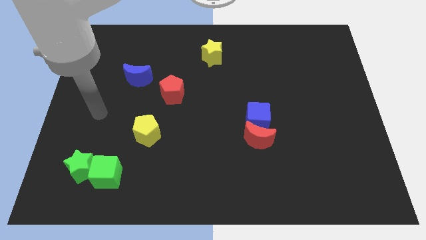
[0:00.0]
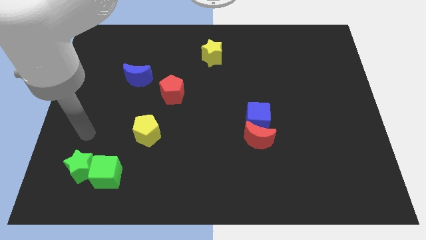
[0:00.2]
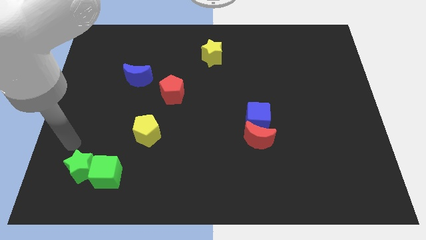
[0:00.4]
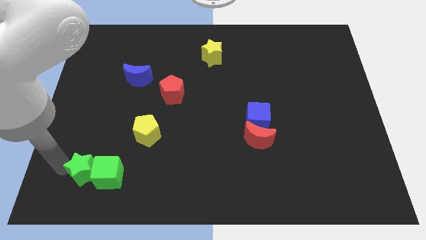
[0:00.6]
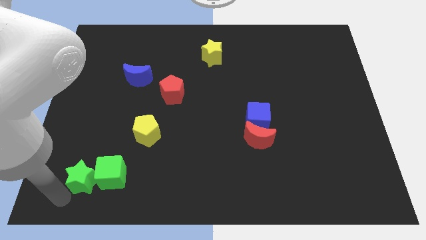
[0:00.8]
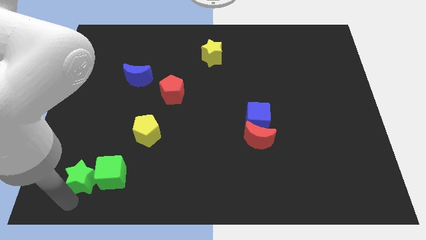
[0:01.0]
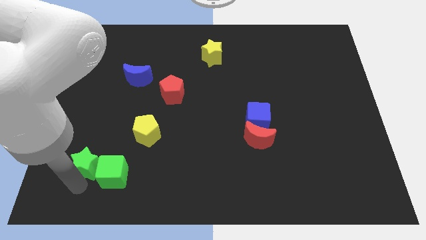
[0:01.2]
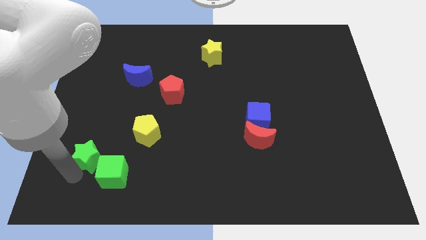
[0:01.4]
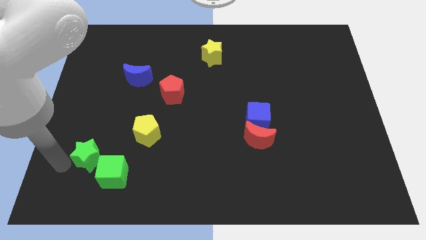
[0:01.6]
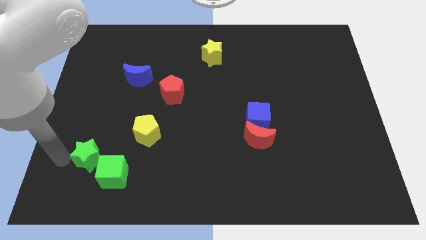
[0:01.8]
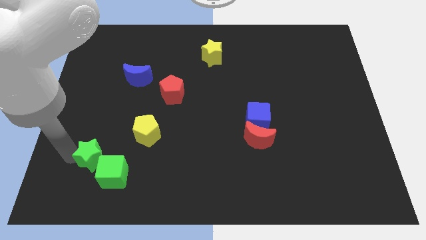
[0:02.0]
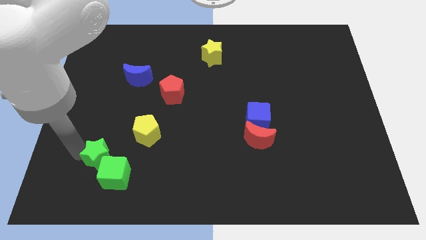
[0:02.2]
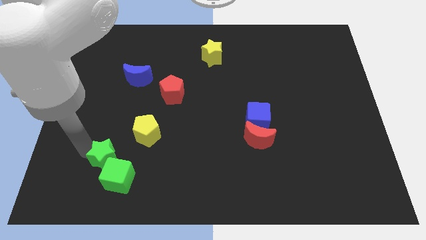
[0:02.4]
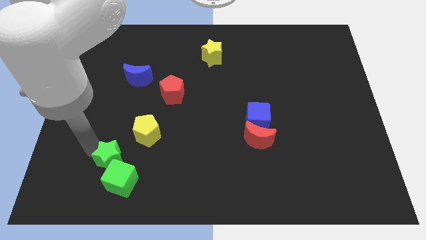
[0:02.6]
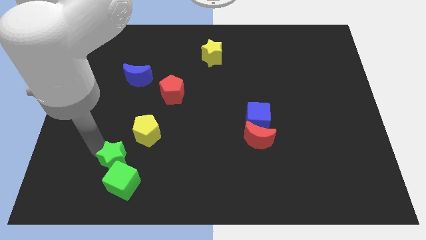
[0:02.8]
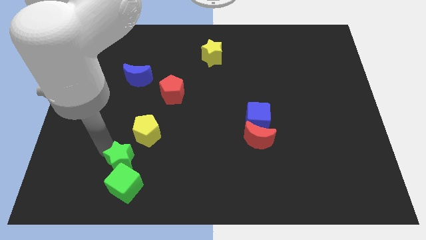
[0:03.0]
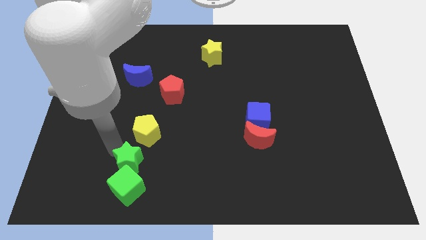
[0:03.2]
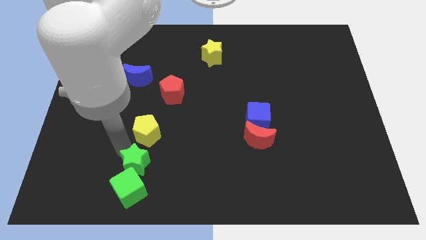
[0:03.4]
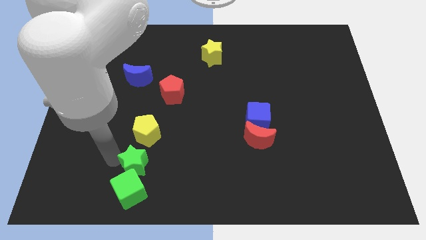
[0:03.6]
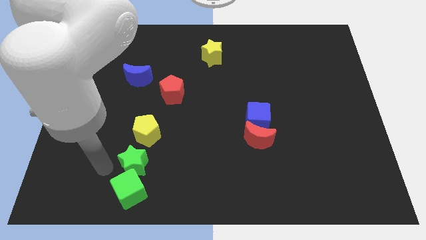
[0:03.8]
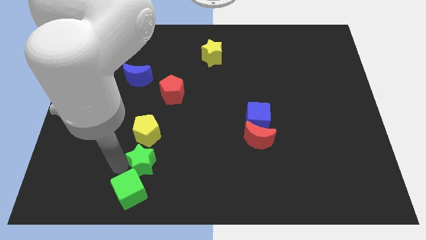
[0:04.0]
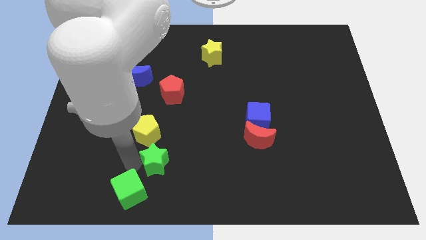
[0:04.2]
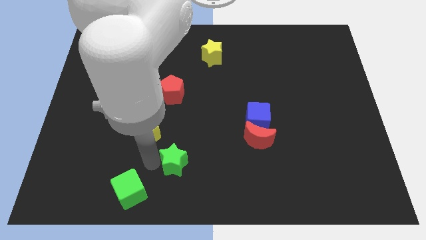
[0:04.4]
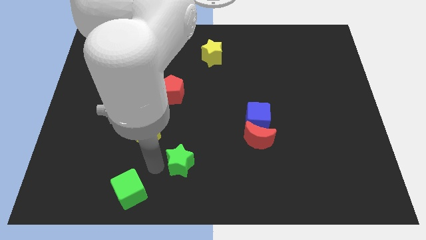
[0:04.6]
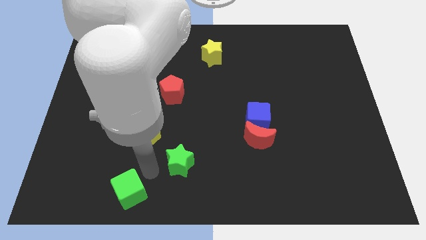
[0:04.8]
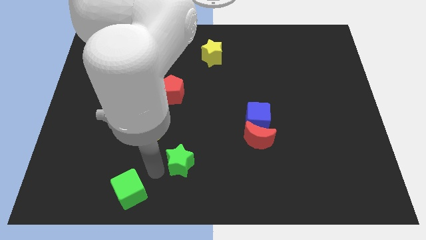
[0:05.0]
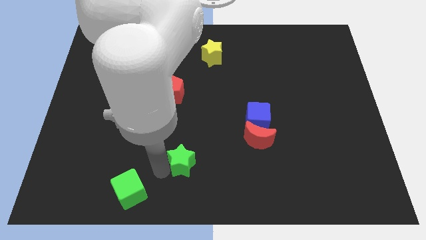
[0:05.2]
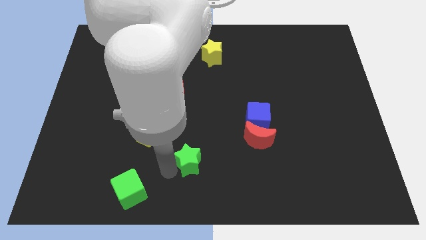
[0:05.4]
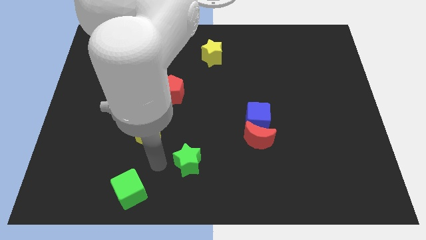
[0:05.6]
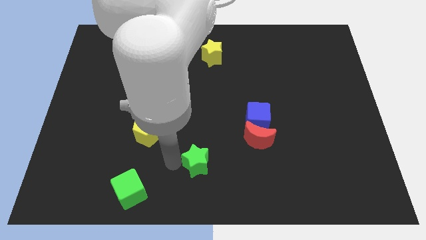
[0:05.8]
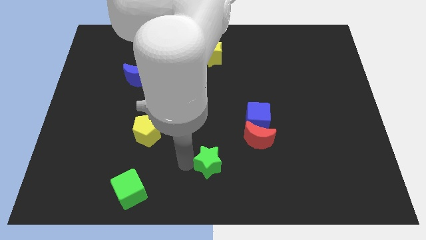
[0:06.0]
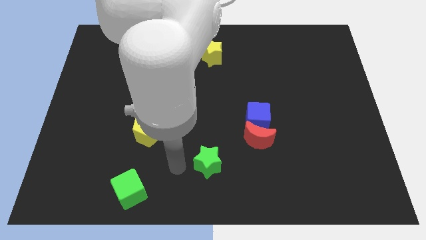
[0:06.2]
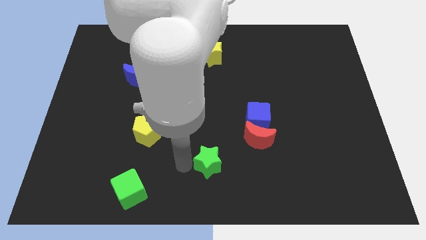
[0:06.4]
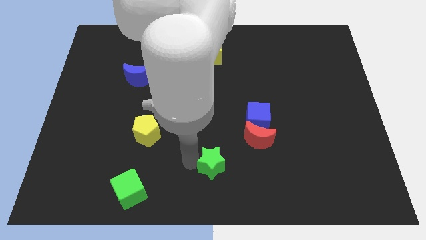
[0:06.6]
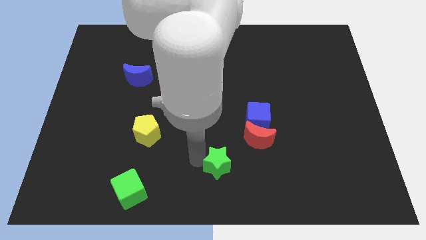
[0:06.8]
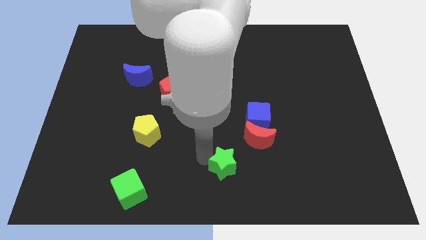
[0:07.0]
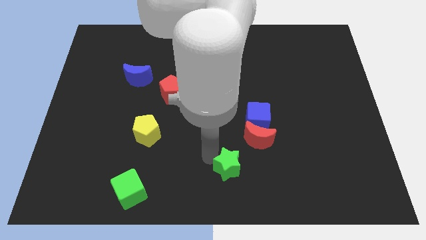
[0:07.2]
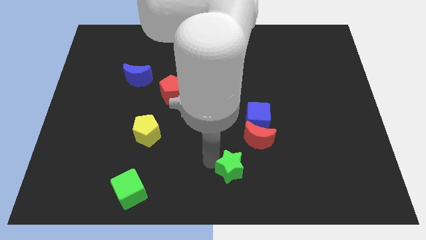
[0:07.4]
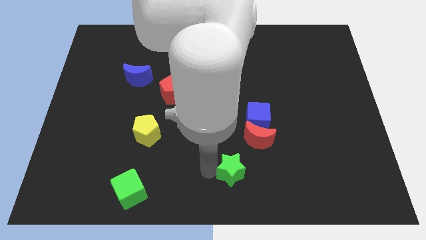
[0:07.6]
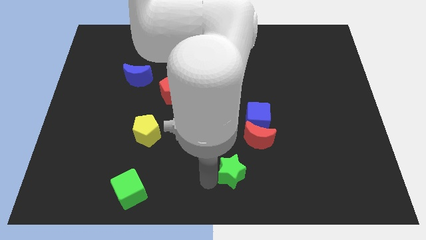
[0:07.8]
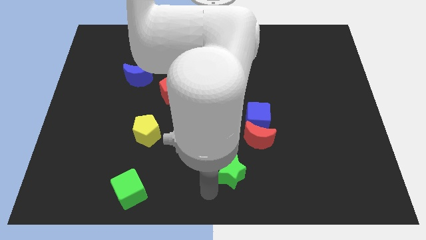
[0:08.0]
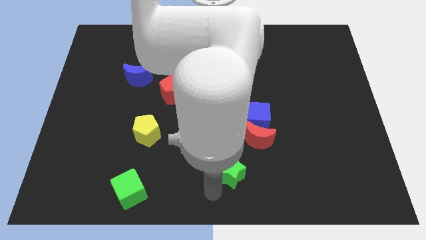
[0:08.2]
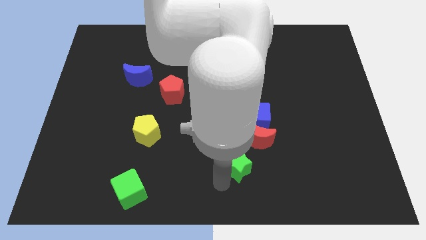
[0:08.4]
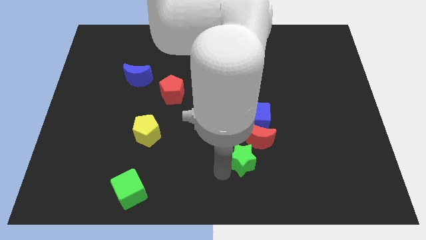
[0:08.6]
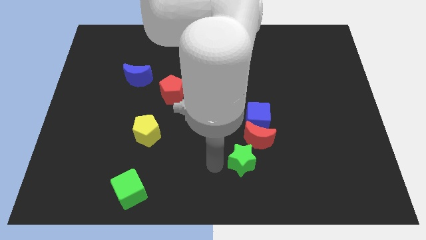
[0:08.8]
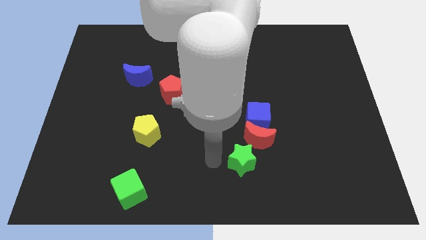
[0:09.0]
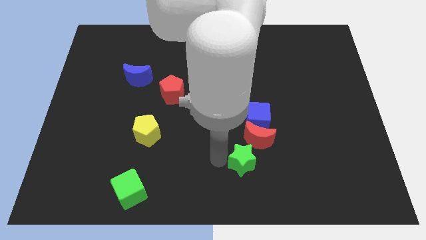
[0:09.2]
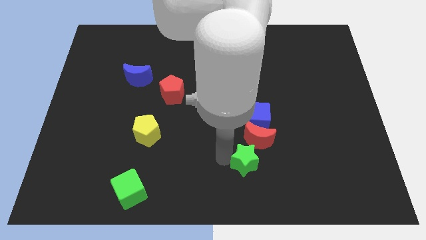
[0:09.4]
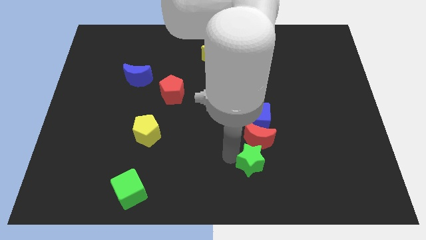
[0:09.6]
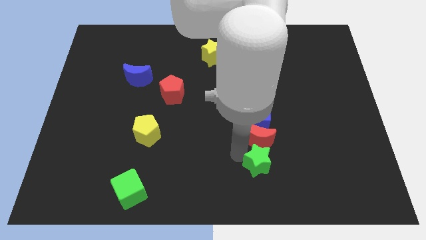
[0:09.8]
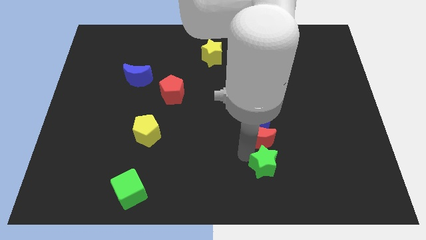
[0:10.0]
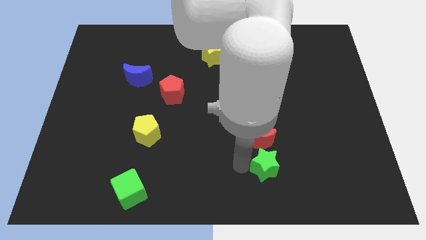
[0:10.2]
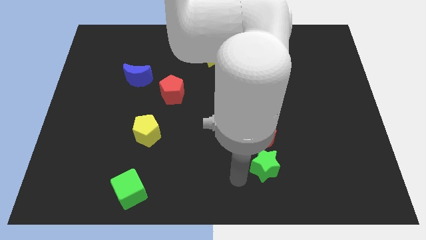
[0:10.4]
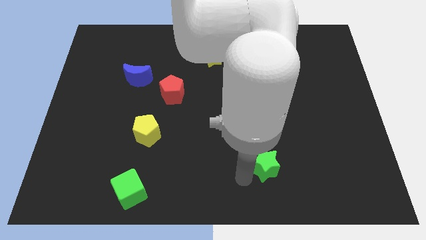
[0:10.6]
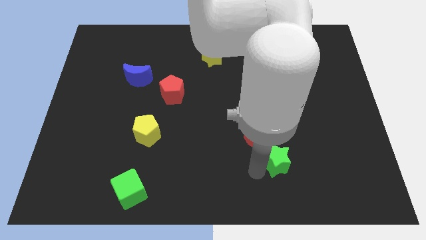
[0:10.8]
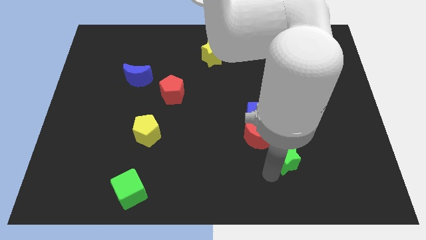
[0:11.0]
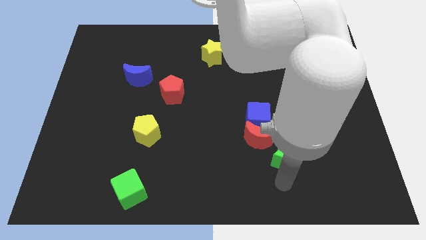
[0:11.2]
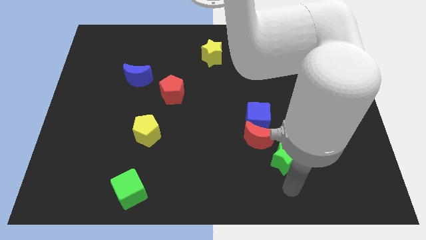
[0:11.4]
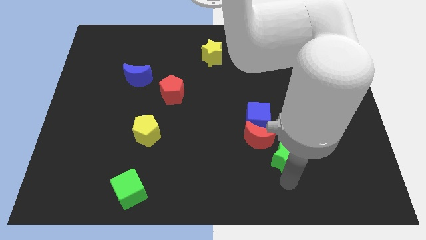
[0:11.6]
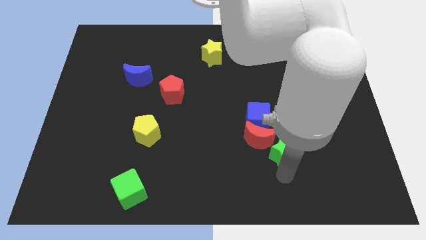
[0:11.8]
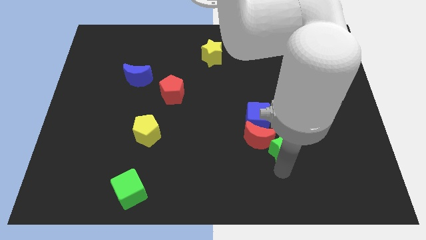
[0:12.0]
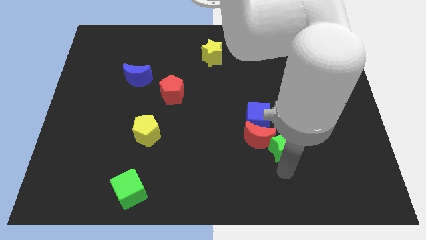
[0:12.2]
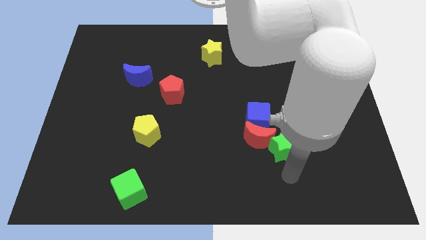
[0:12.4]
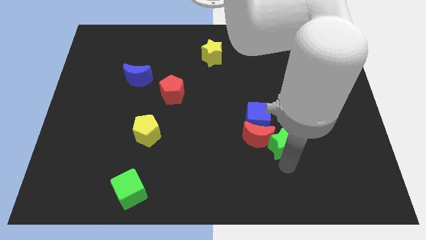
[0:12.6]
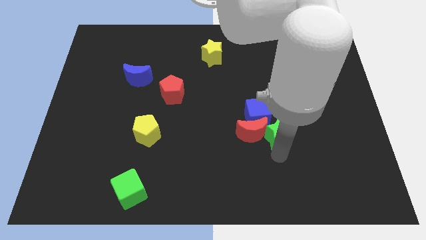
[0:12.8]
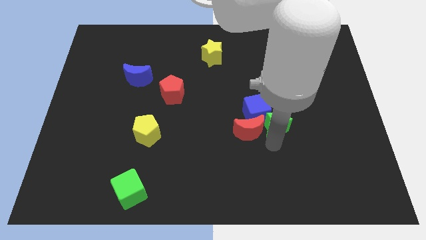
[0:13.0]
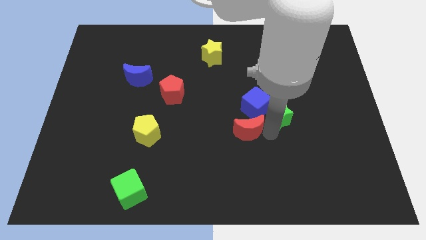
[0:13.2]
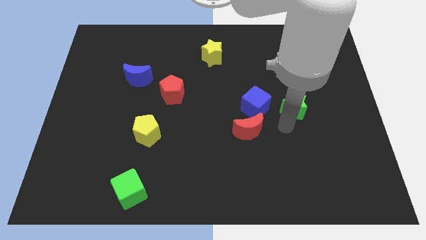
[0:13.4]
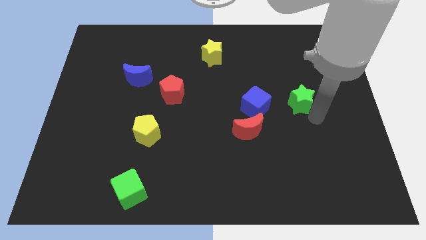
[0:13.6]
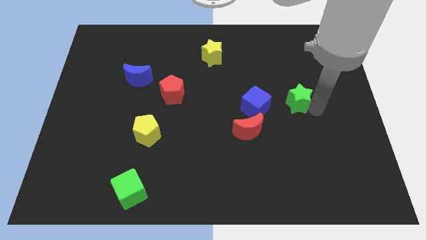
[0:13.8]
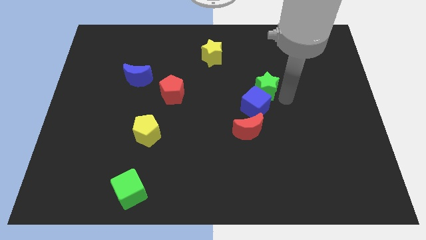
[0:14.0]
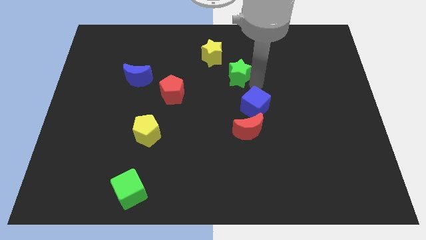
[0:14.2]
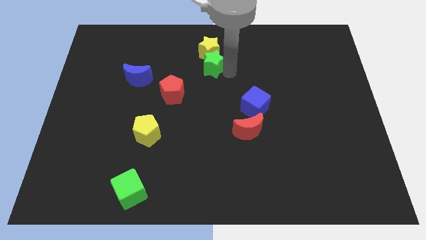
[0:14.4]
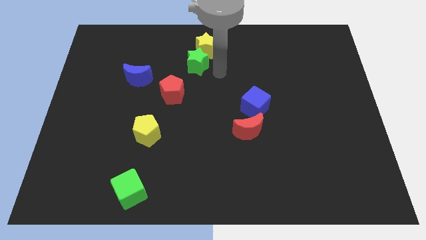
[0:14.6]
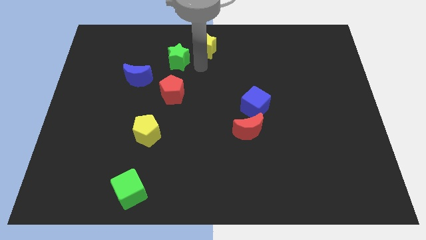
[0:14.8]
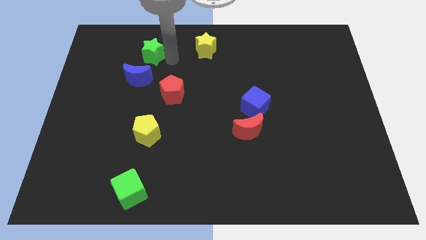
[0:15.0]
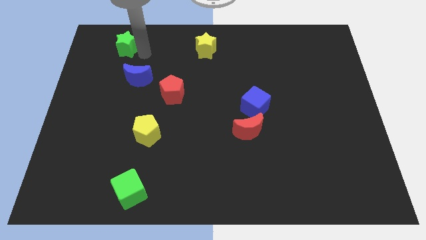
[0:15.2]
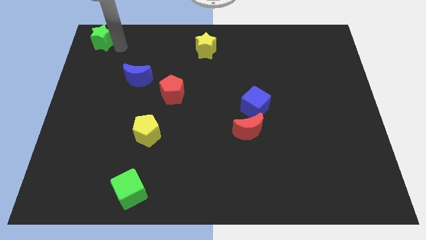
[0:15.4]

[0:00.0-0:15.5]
slide the green star to the top left corner
